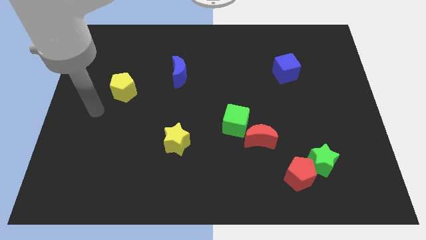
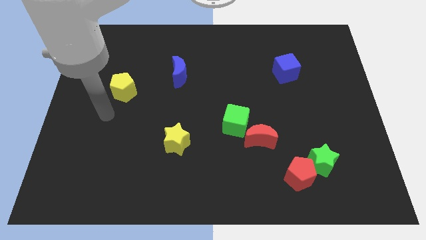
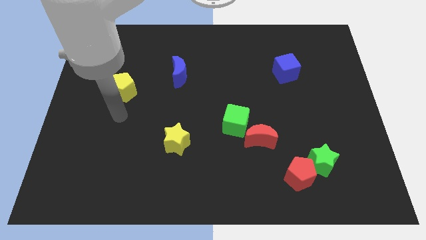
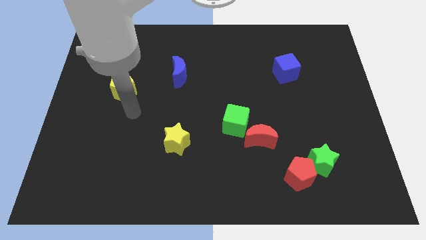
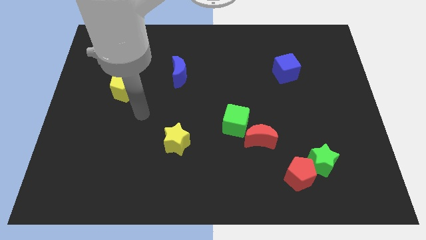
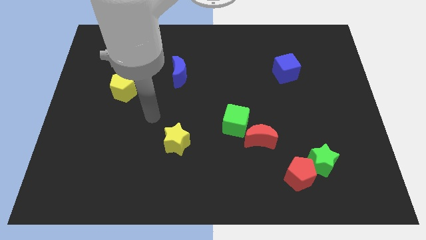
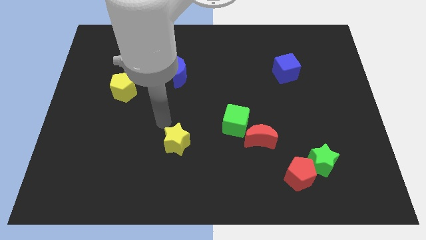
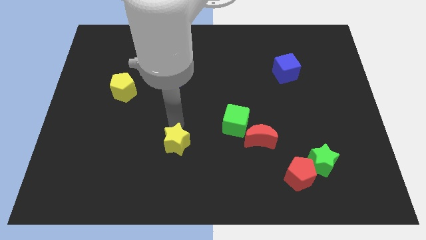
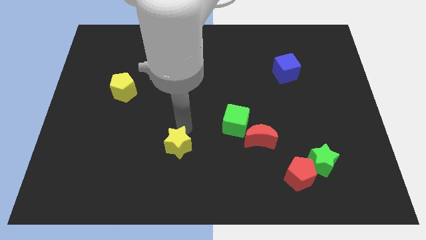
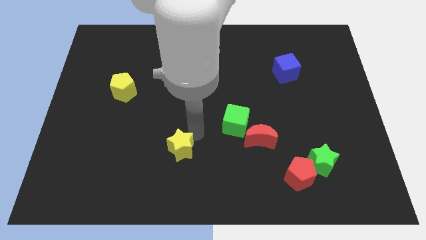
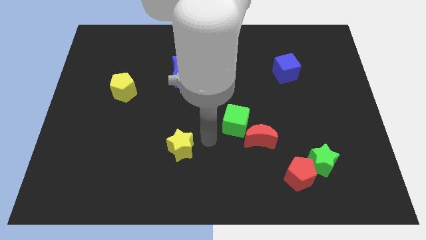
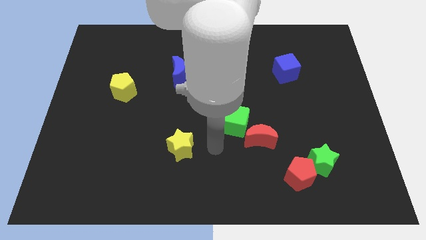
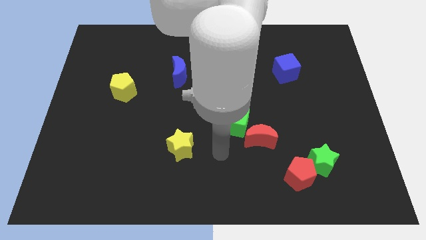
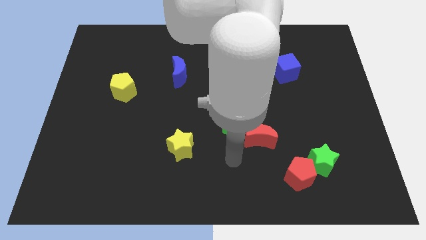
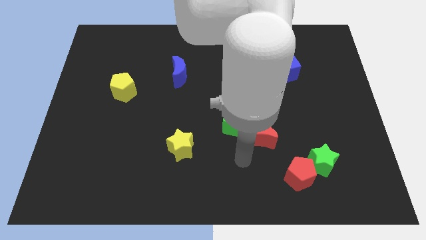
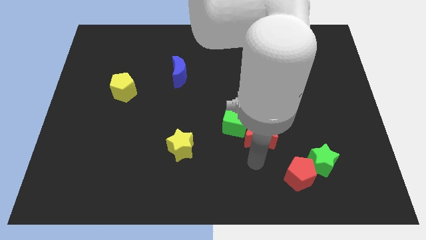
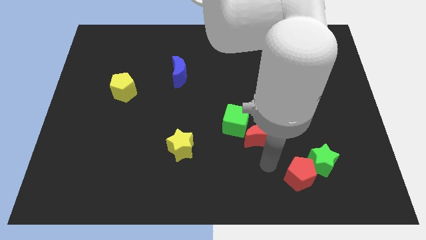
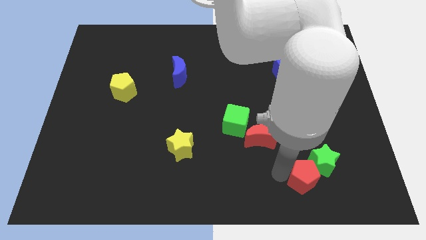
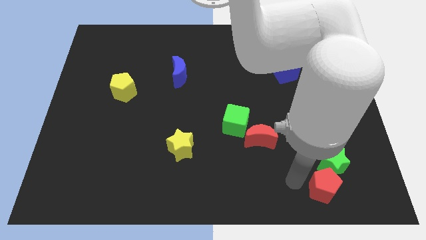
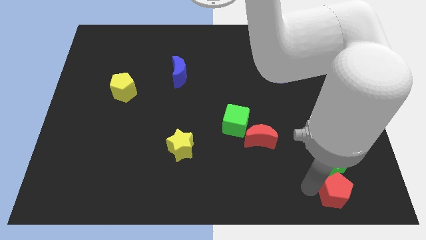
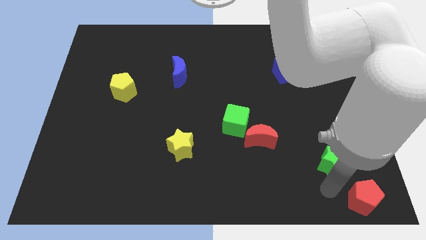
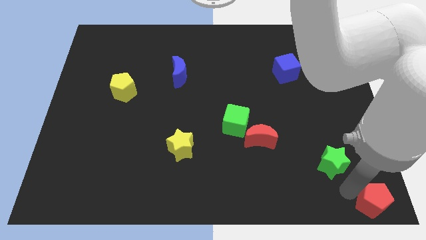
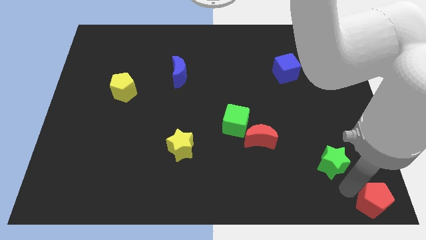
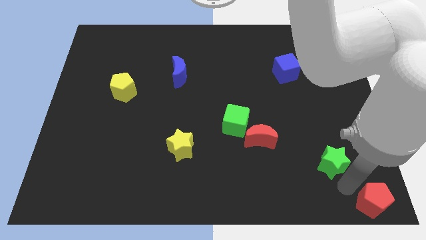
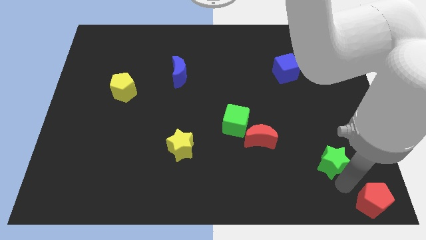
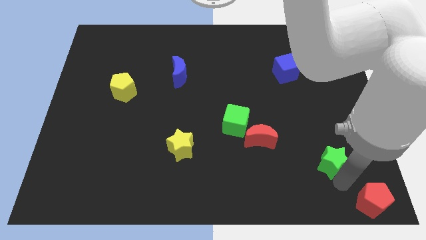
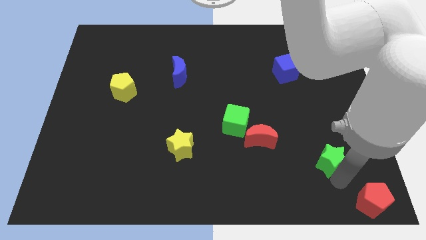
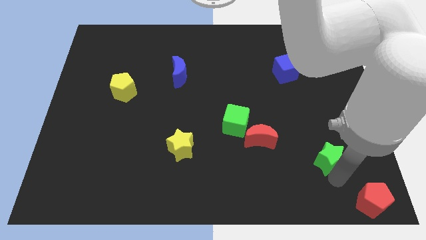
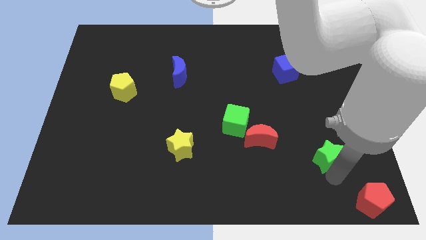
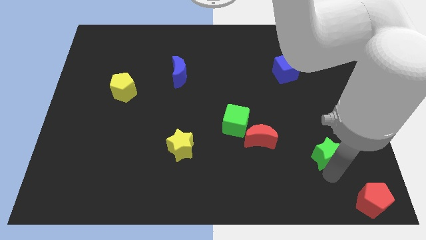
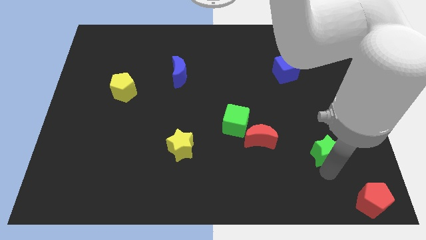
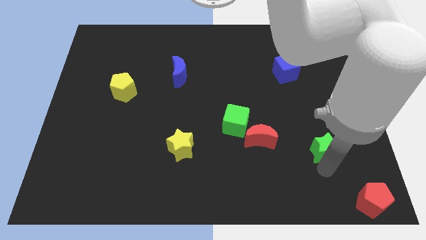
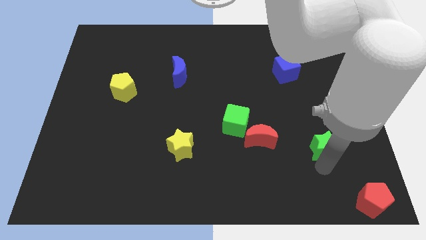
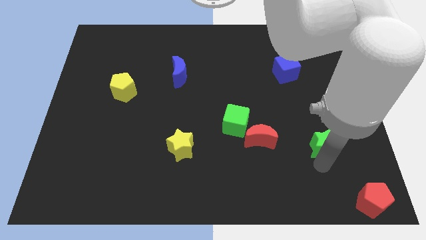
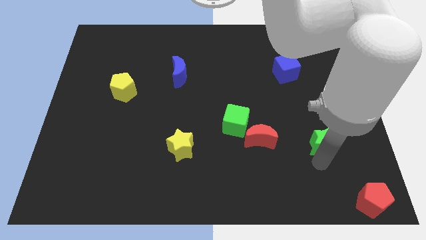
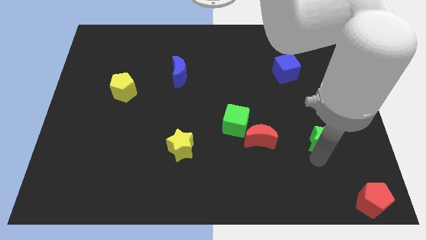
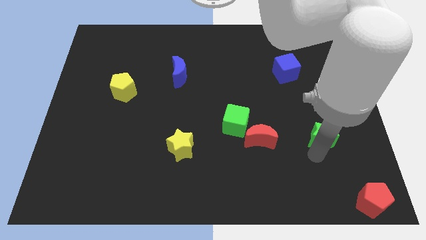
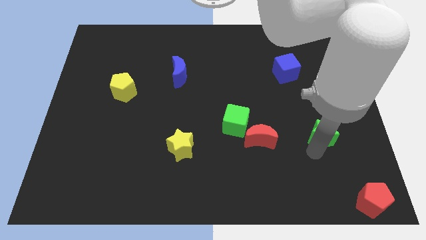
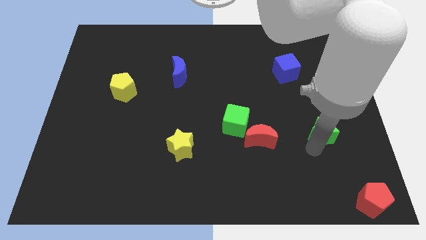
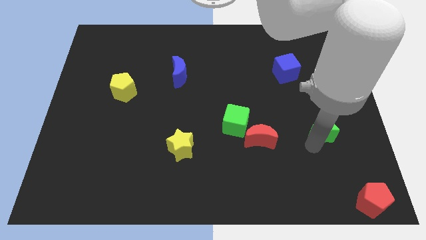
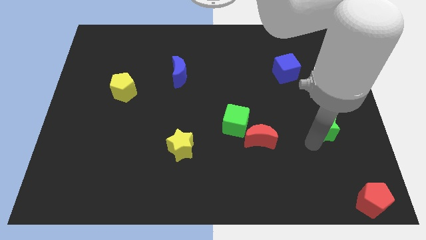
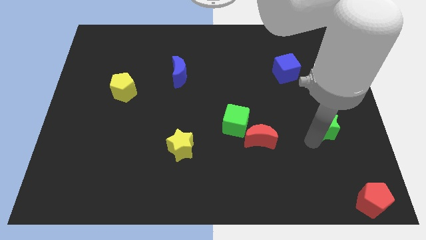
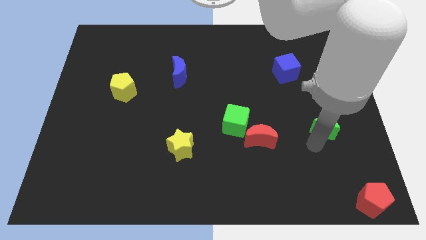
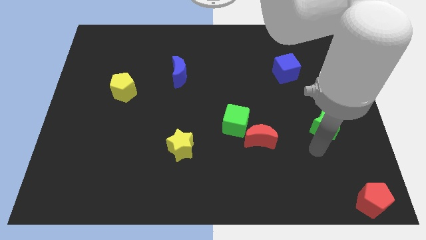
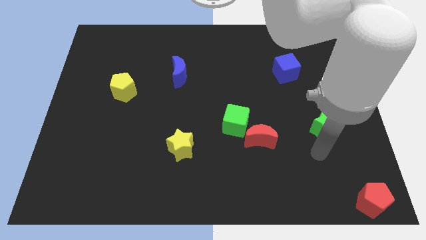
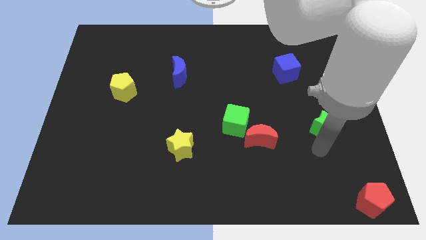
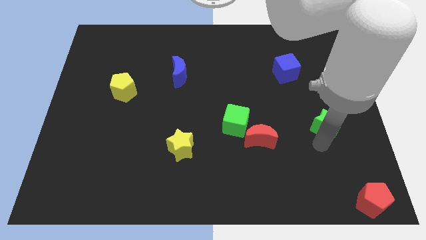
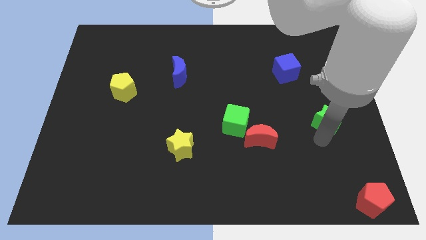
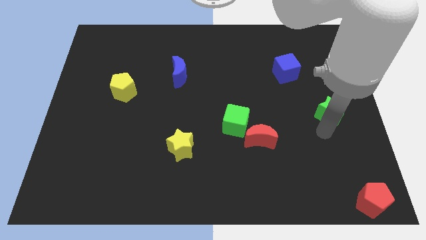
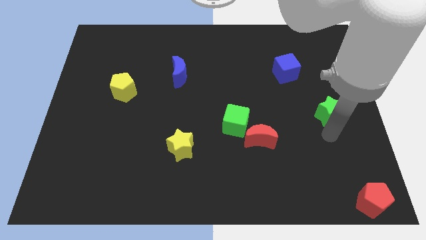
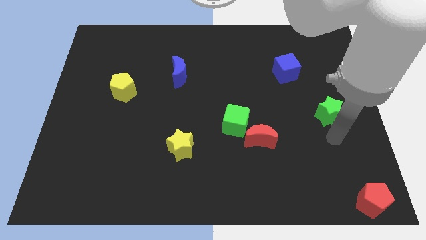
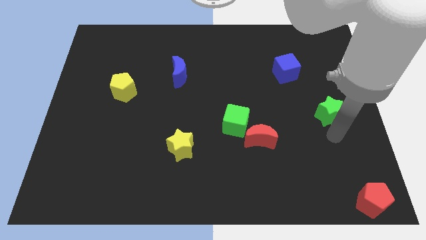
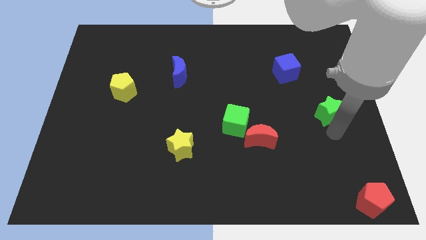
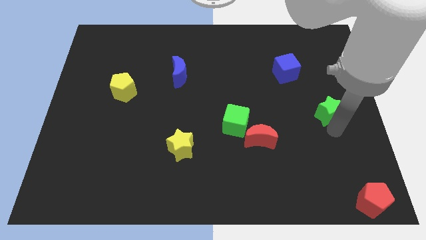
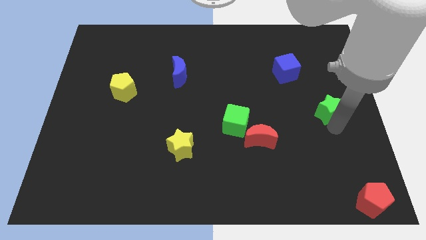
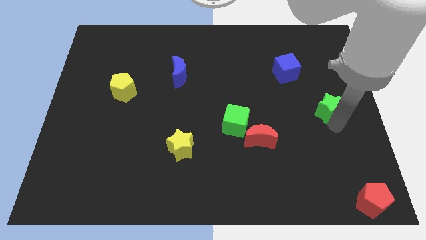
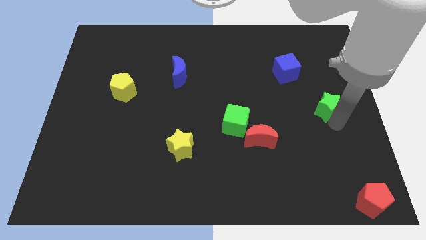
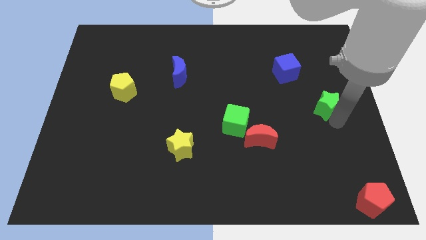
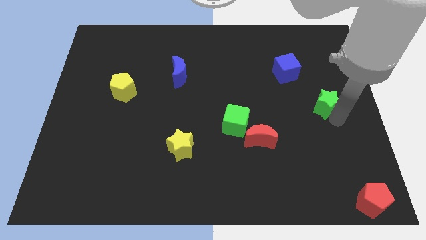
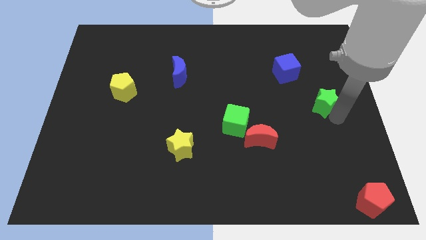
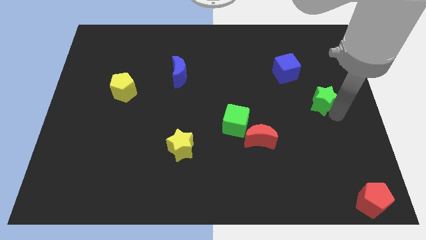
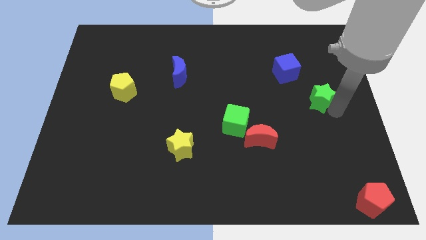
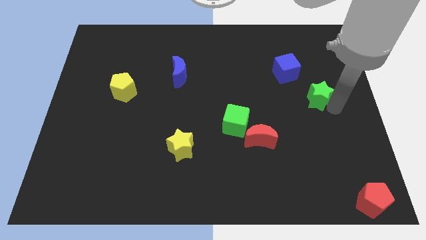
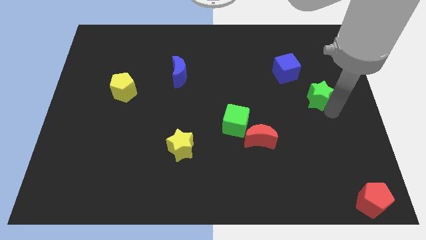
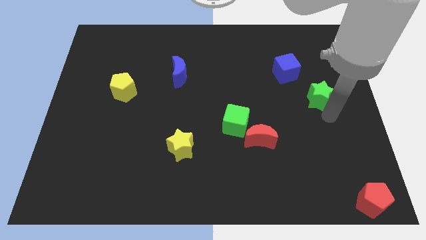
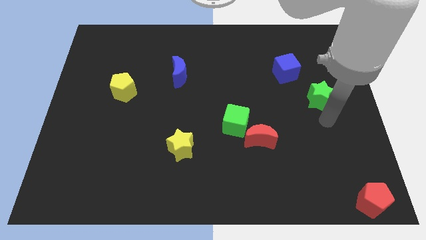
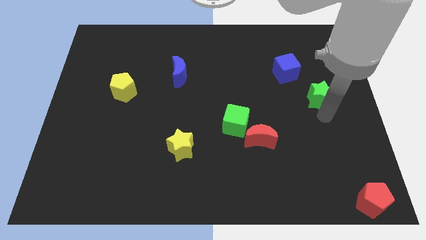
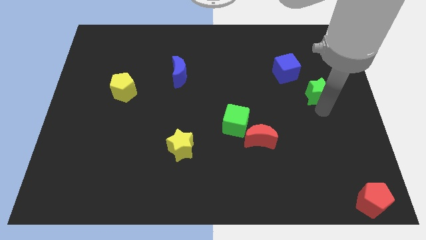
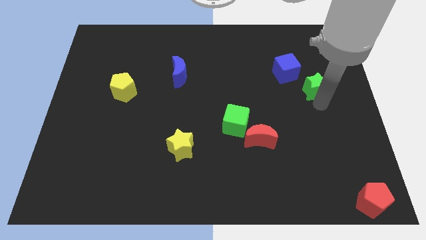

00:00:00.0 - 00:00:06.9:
slide the green star upwards

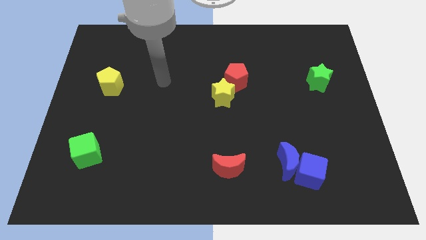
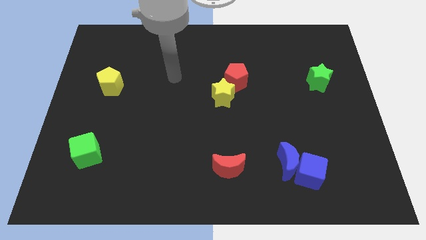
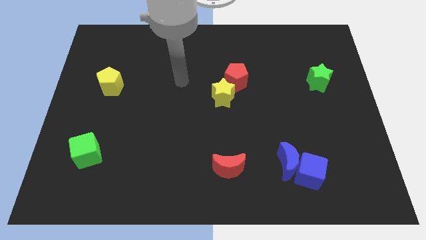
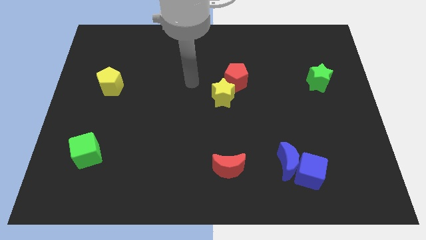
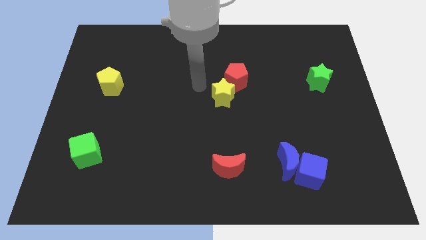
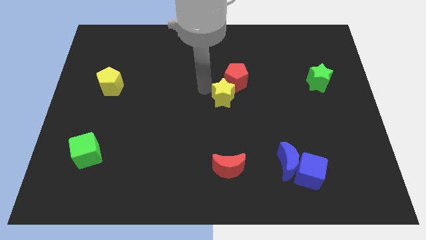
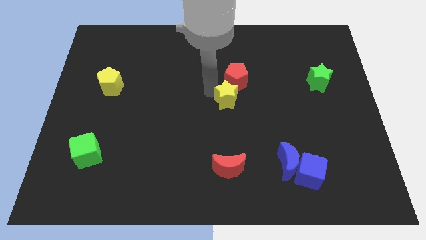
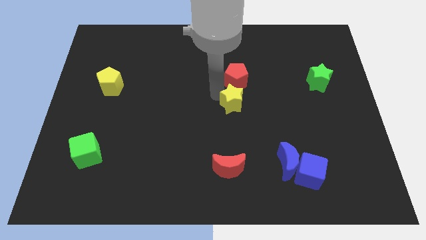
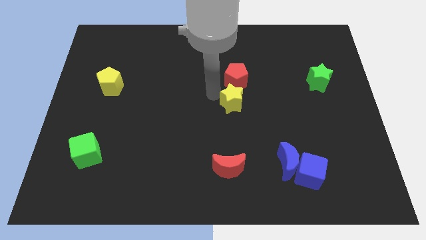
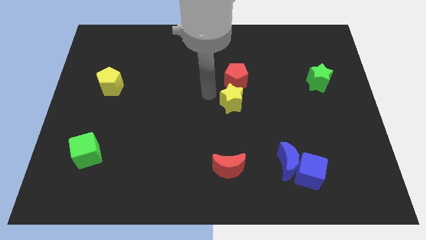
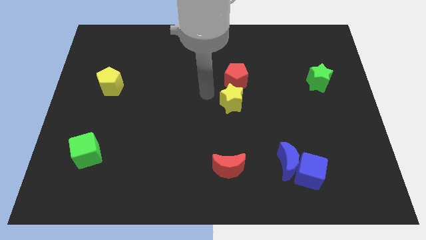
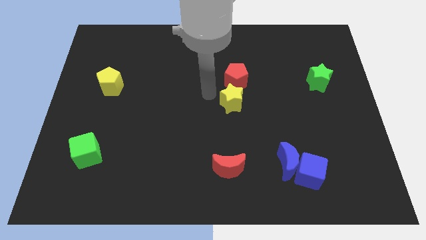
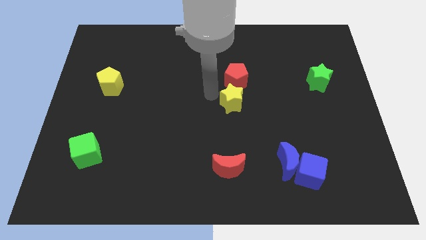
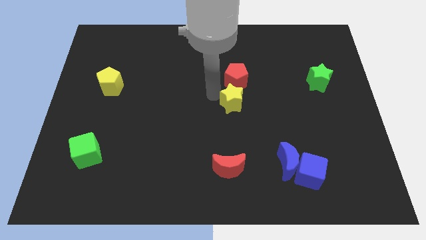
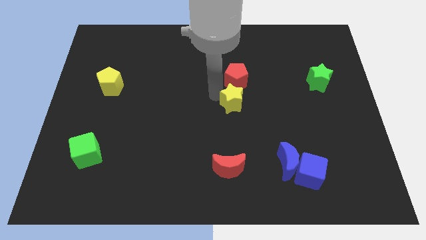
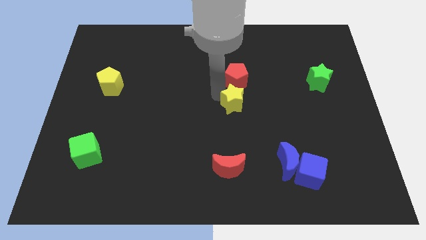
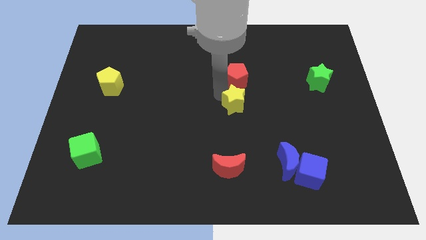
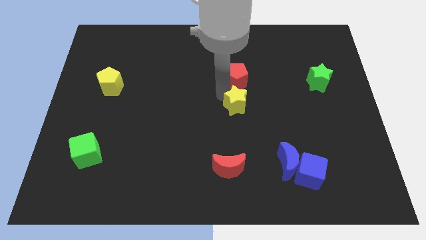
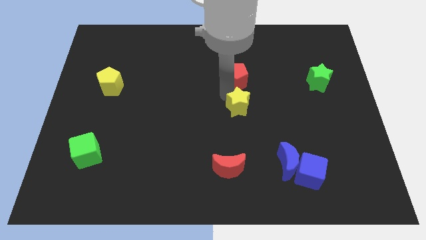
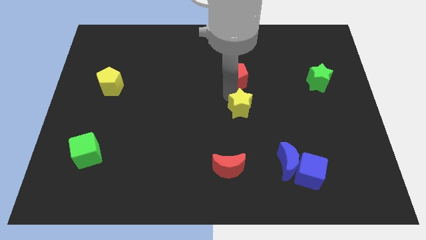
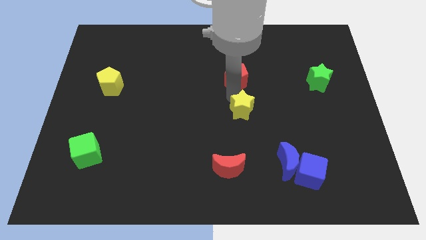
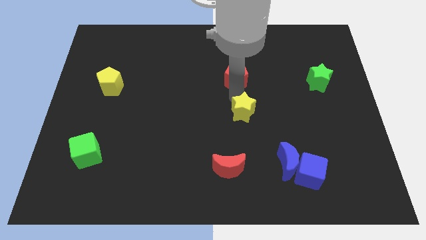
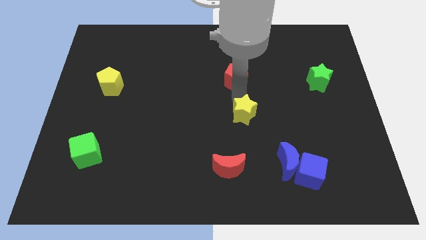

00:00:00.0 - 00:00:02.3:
slightly slide the yellow star down and to the right diagonally
